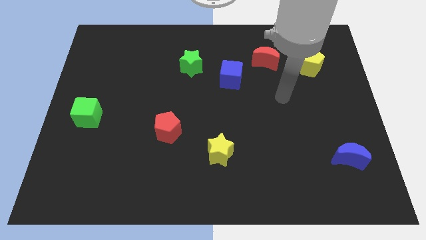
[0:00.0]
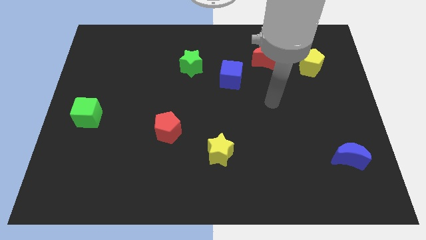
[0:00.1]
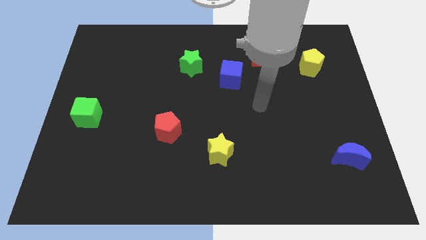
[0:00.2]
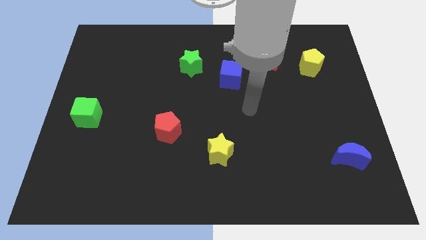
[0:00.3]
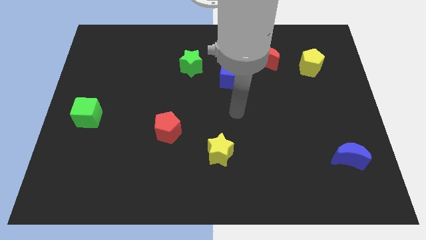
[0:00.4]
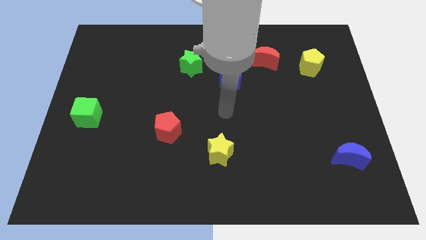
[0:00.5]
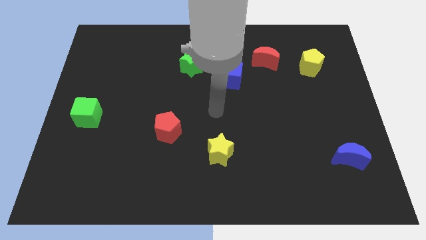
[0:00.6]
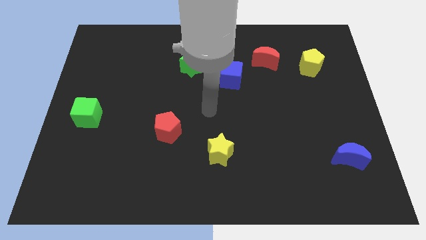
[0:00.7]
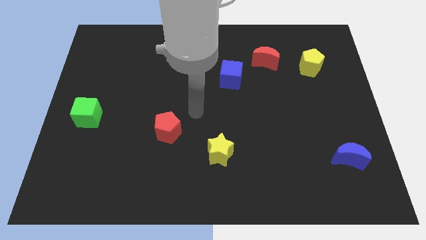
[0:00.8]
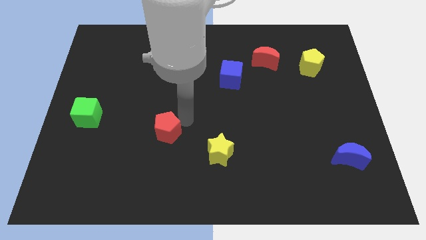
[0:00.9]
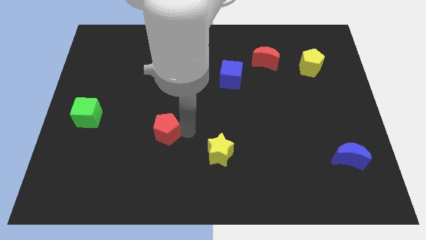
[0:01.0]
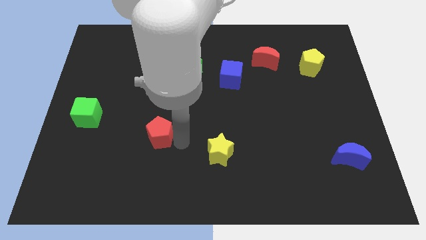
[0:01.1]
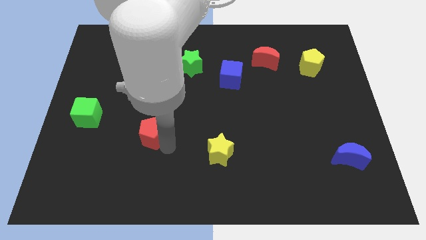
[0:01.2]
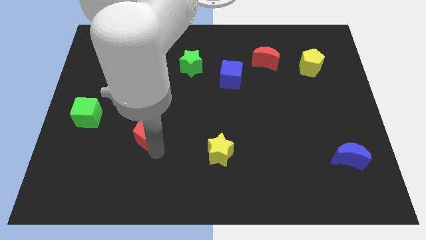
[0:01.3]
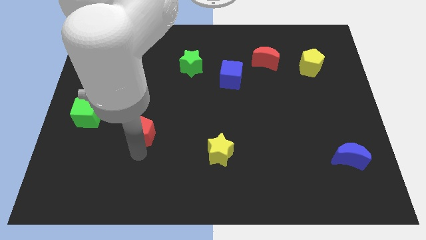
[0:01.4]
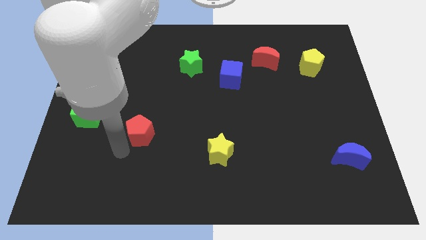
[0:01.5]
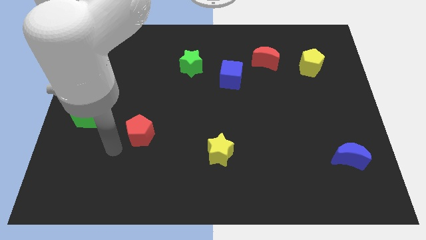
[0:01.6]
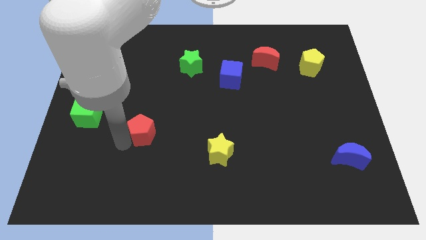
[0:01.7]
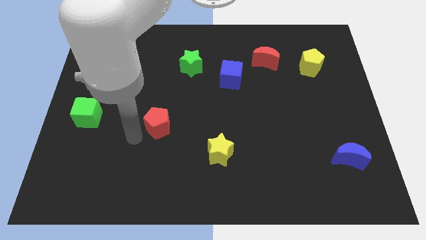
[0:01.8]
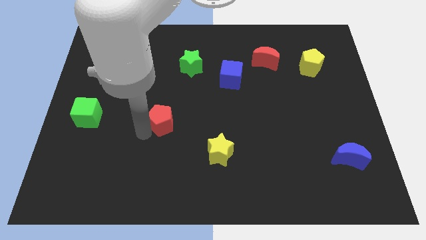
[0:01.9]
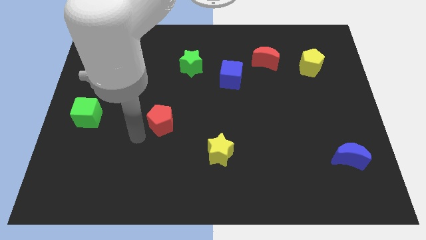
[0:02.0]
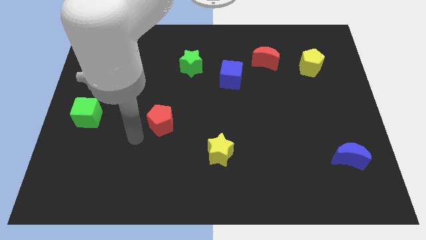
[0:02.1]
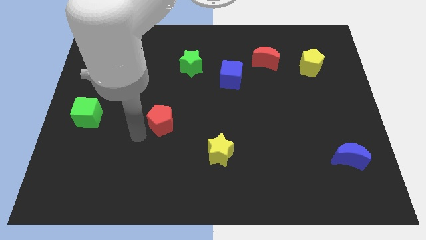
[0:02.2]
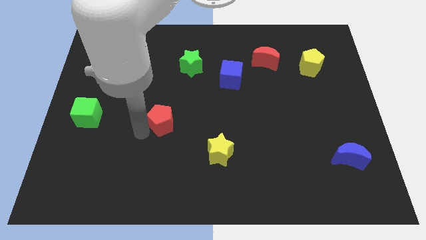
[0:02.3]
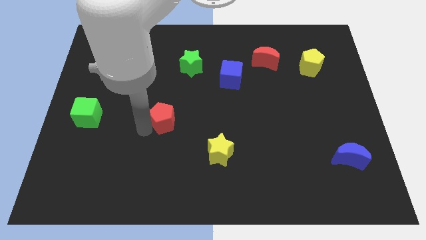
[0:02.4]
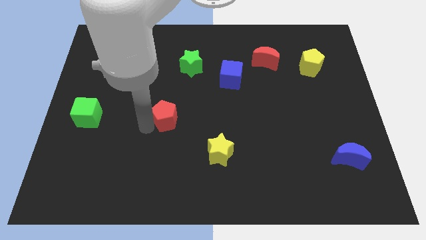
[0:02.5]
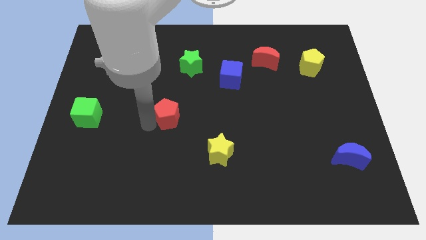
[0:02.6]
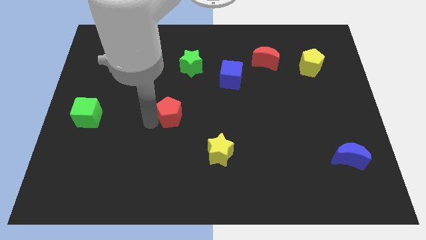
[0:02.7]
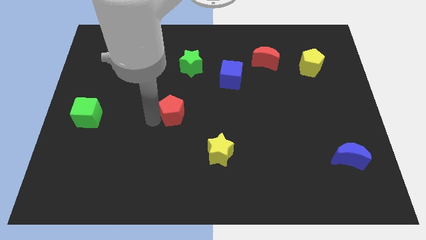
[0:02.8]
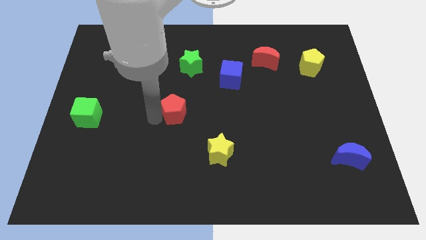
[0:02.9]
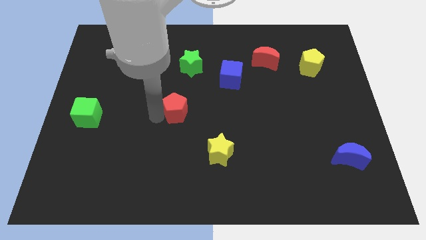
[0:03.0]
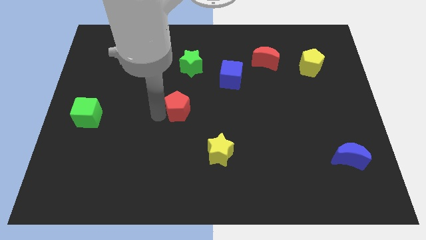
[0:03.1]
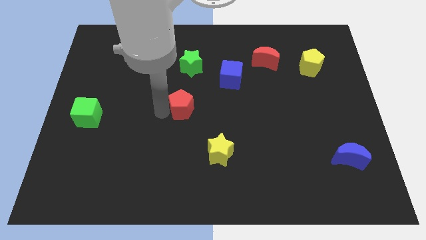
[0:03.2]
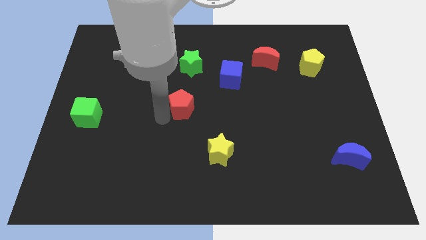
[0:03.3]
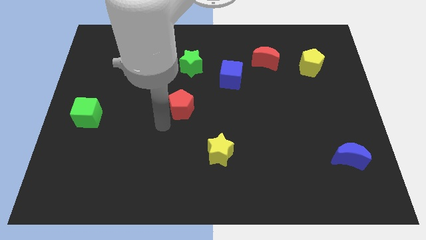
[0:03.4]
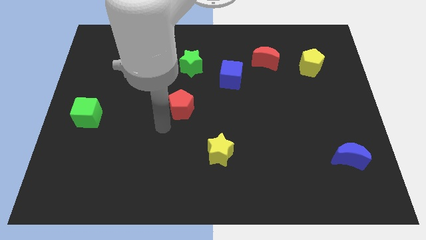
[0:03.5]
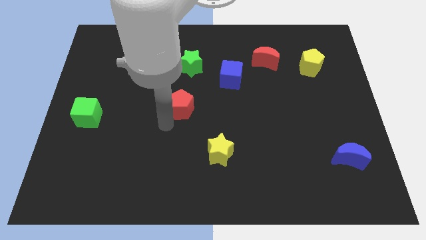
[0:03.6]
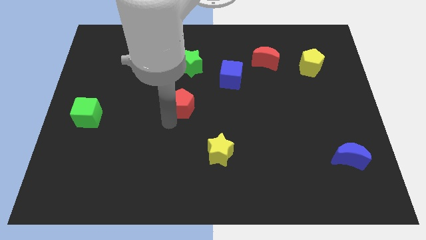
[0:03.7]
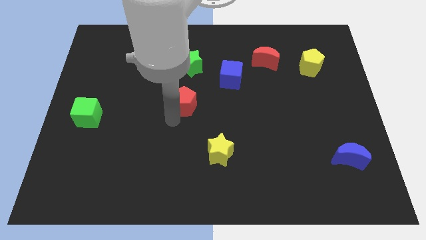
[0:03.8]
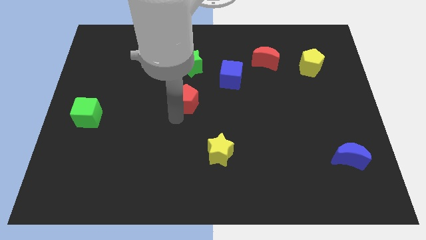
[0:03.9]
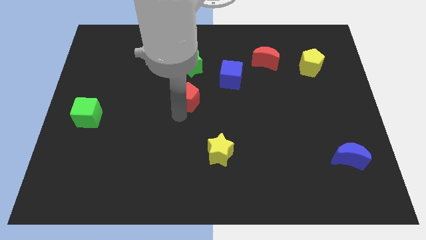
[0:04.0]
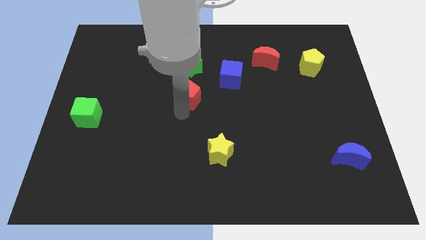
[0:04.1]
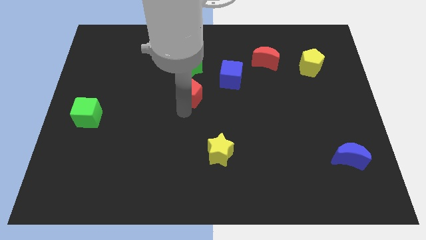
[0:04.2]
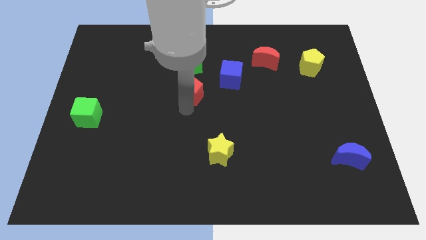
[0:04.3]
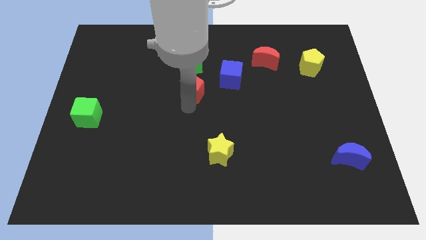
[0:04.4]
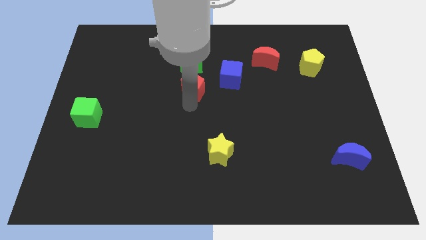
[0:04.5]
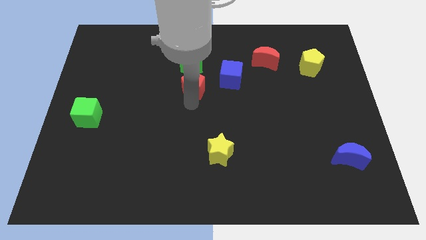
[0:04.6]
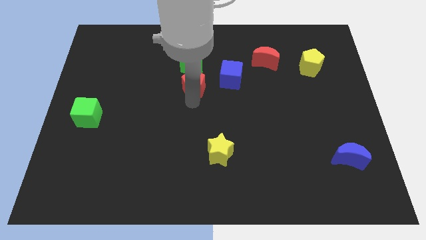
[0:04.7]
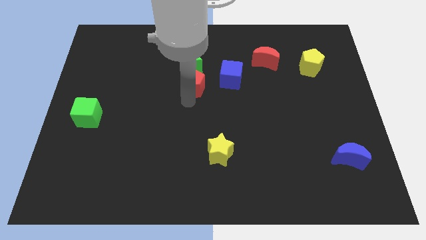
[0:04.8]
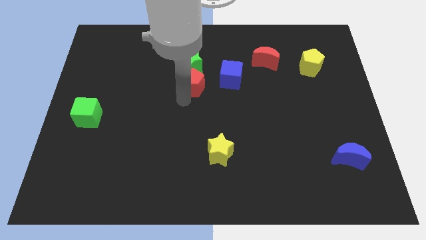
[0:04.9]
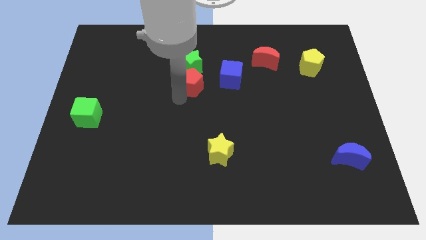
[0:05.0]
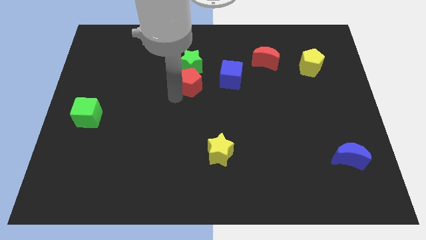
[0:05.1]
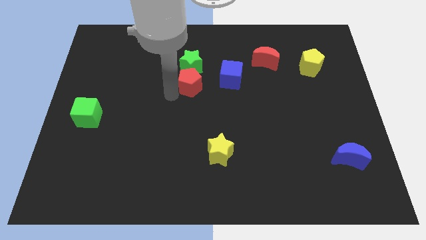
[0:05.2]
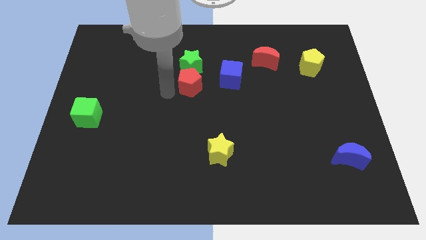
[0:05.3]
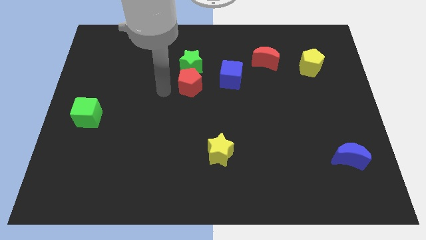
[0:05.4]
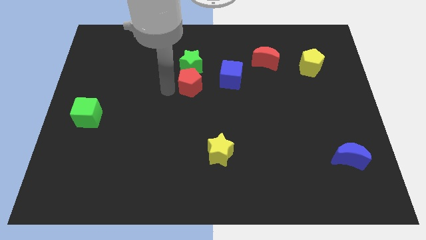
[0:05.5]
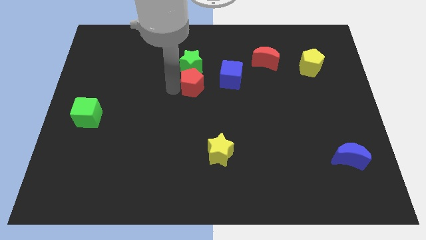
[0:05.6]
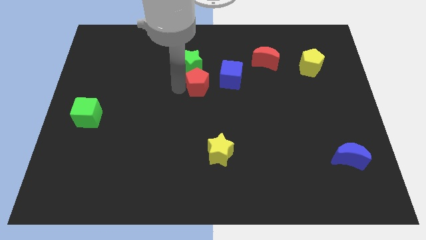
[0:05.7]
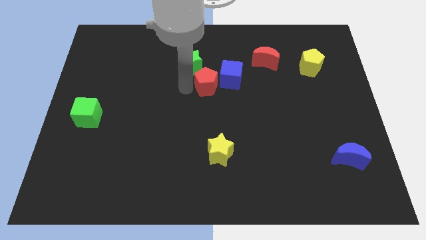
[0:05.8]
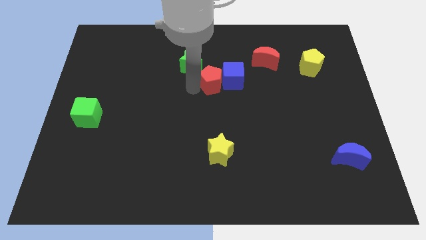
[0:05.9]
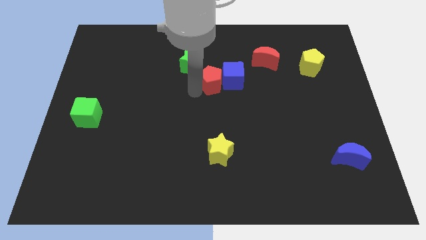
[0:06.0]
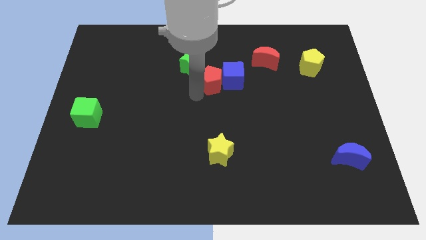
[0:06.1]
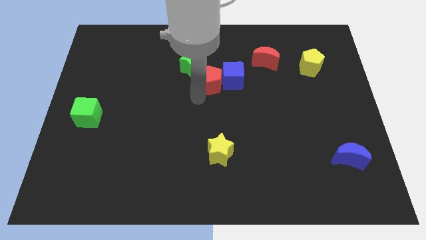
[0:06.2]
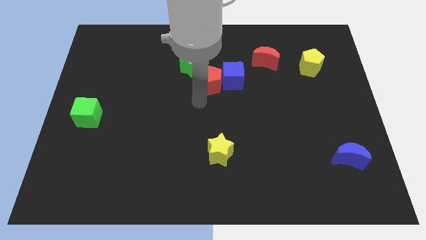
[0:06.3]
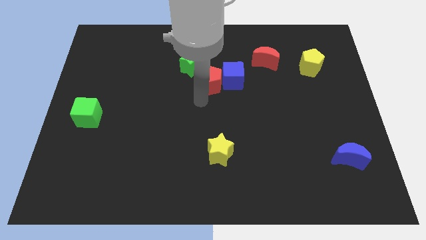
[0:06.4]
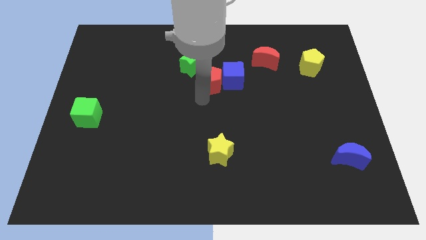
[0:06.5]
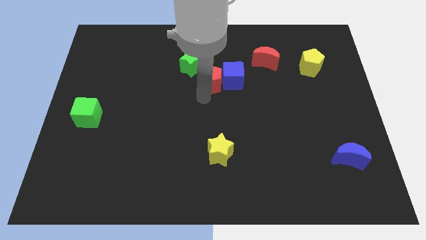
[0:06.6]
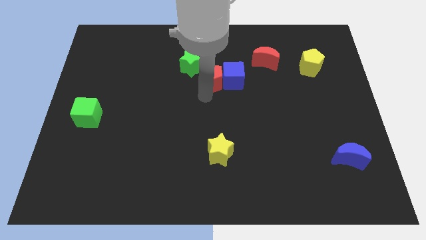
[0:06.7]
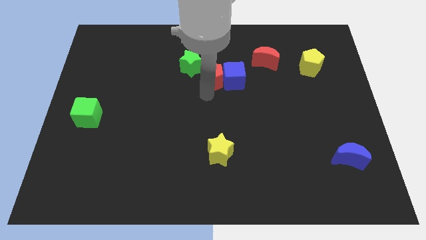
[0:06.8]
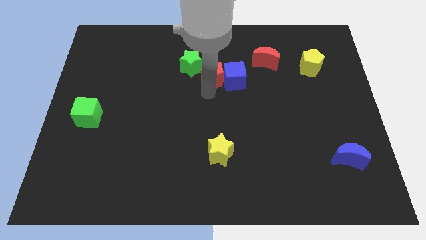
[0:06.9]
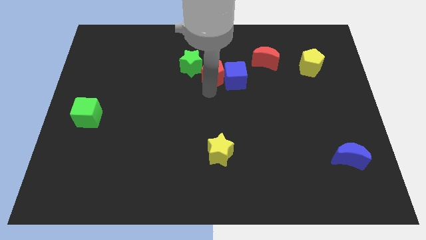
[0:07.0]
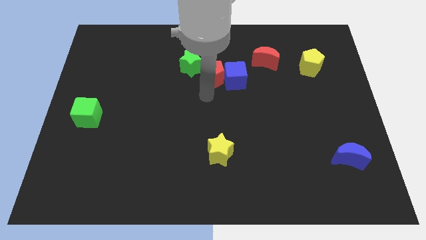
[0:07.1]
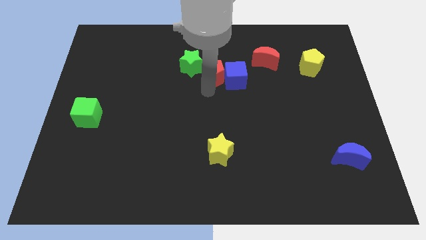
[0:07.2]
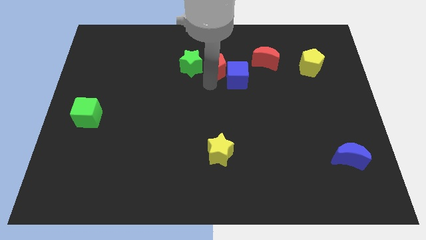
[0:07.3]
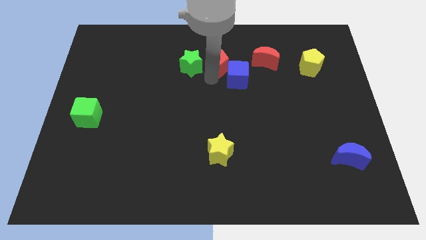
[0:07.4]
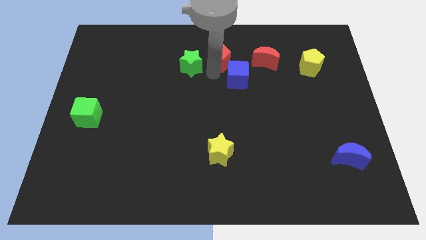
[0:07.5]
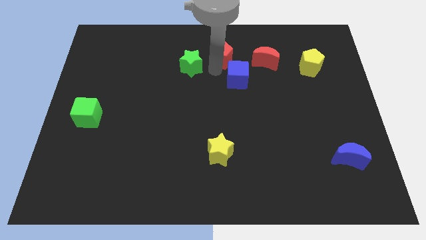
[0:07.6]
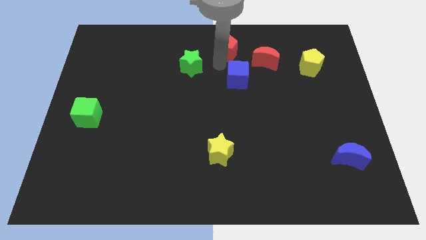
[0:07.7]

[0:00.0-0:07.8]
slide the red pentagon to the top side
